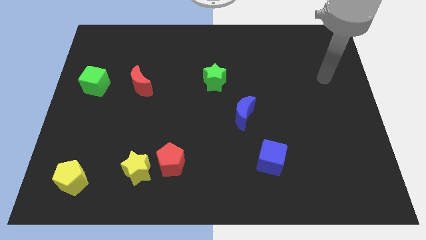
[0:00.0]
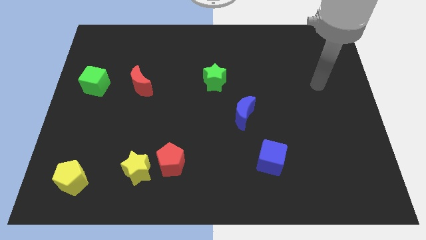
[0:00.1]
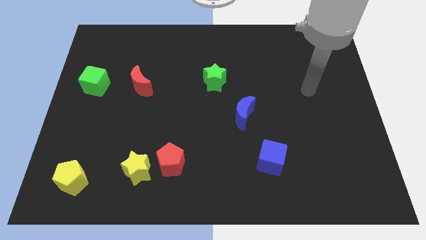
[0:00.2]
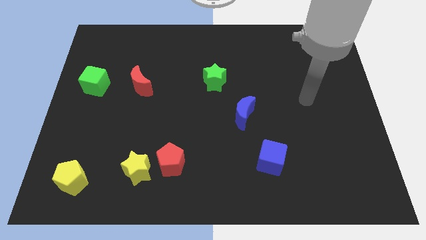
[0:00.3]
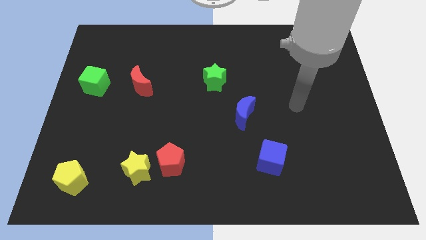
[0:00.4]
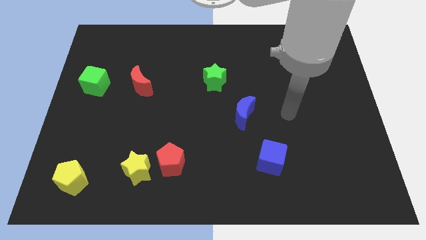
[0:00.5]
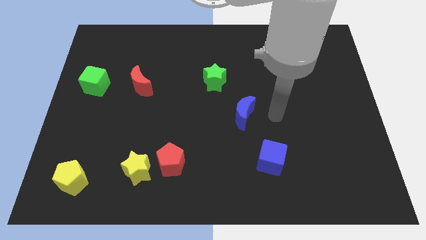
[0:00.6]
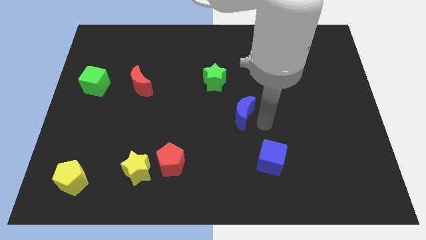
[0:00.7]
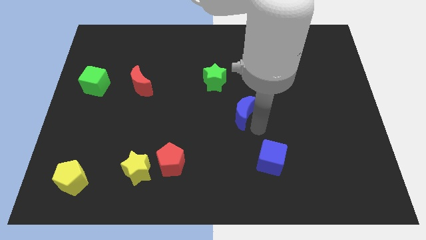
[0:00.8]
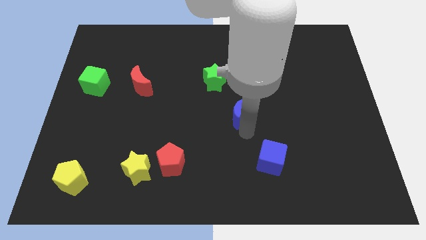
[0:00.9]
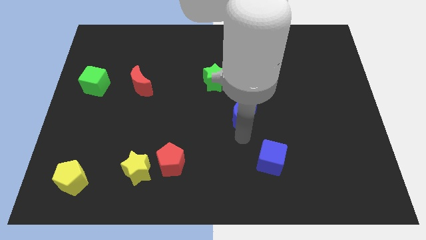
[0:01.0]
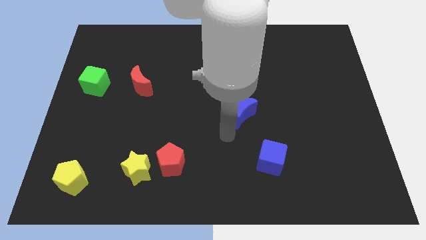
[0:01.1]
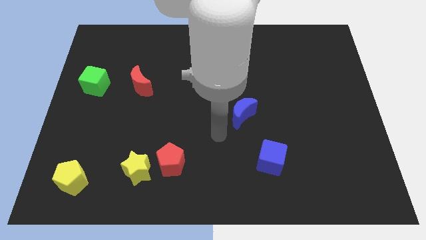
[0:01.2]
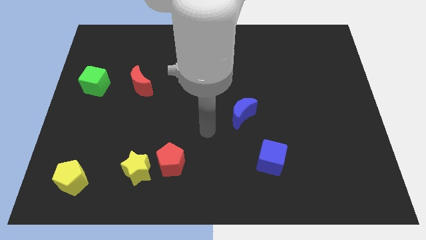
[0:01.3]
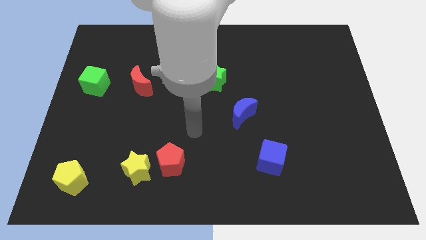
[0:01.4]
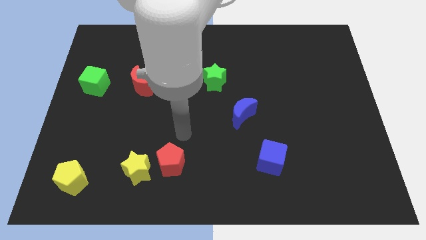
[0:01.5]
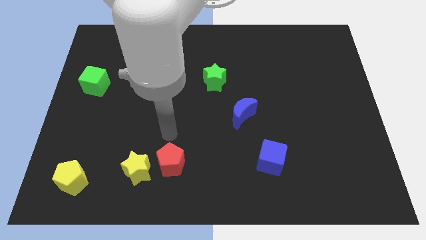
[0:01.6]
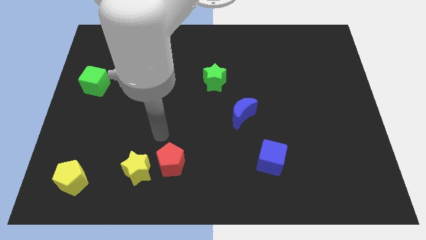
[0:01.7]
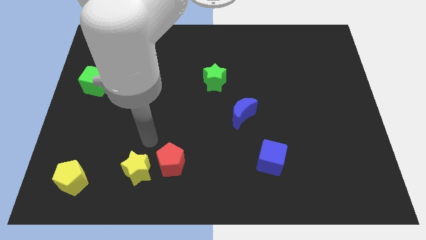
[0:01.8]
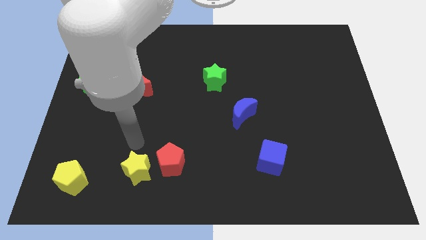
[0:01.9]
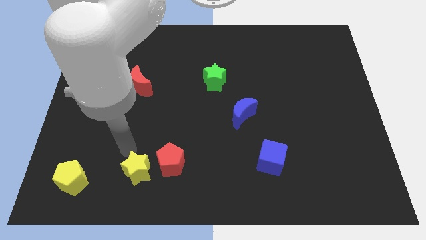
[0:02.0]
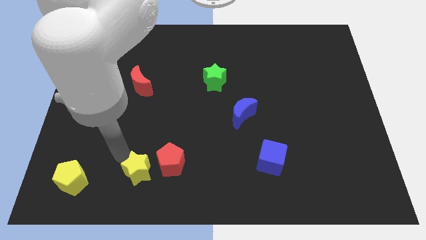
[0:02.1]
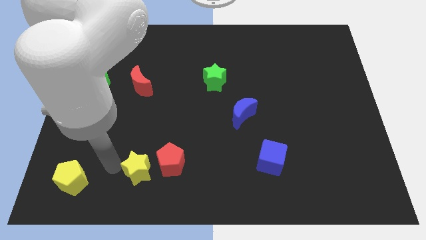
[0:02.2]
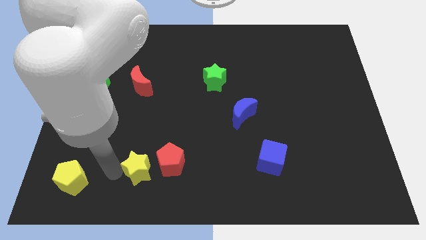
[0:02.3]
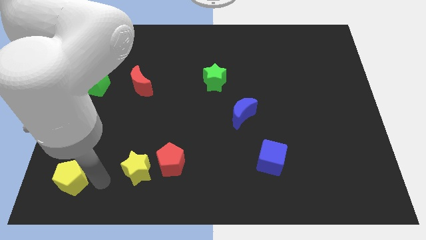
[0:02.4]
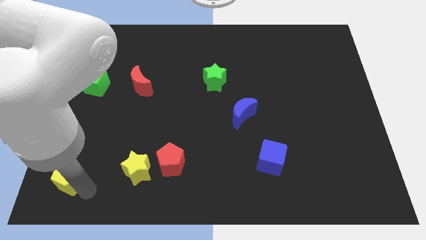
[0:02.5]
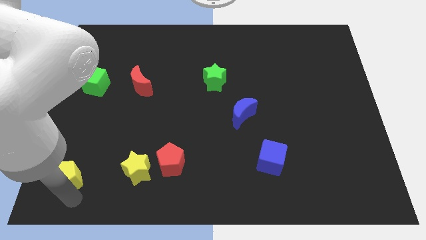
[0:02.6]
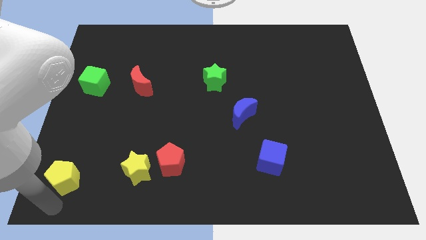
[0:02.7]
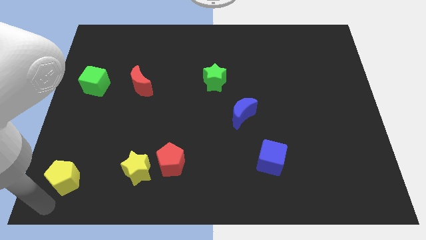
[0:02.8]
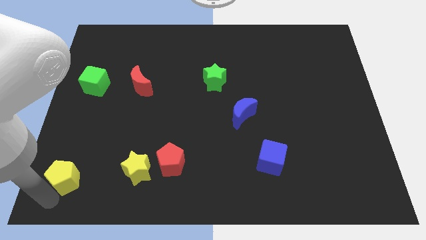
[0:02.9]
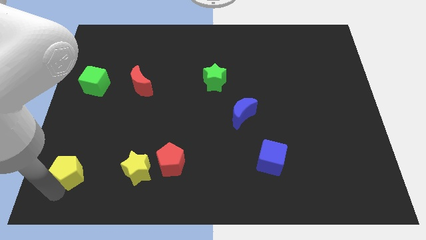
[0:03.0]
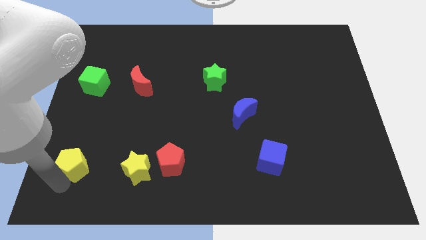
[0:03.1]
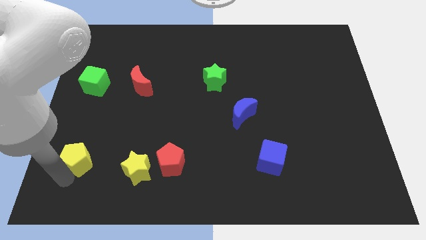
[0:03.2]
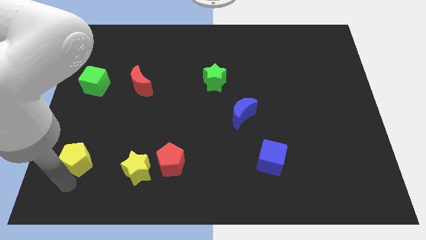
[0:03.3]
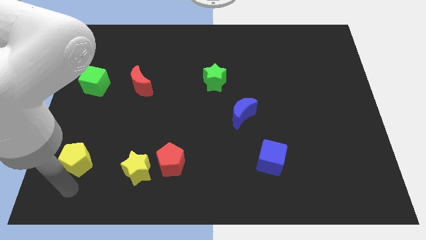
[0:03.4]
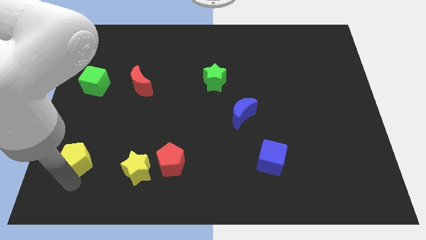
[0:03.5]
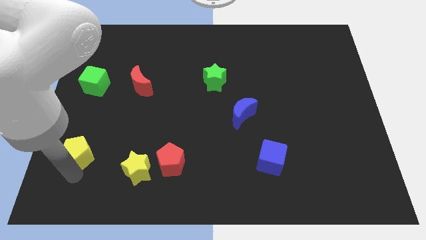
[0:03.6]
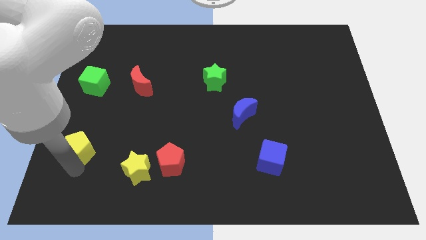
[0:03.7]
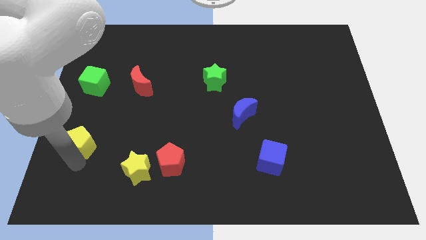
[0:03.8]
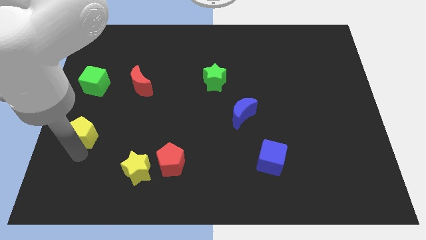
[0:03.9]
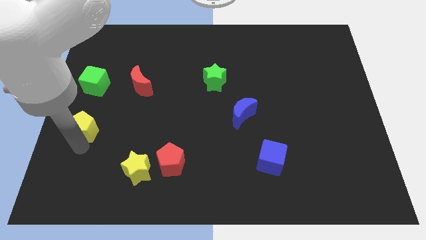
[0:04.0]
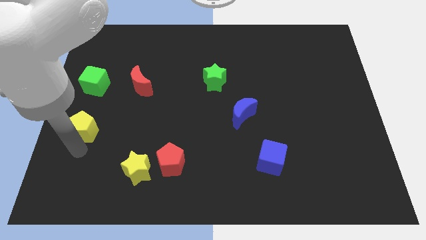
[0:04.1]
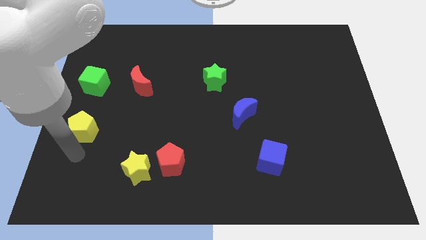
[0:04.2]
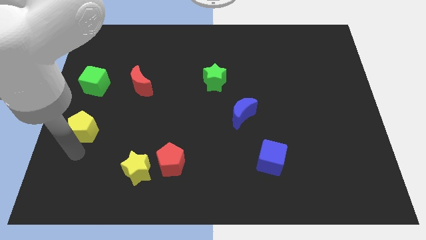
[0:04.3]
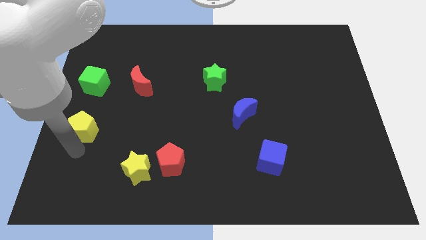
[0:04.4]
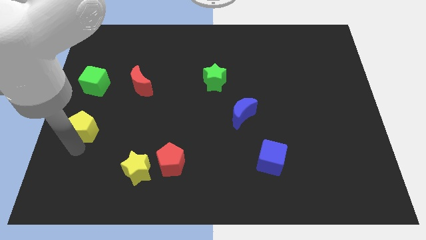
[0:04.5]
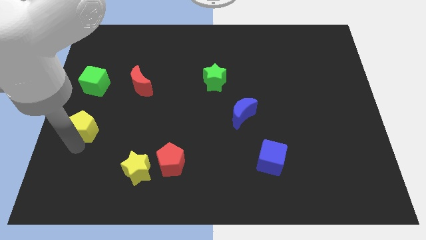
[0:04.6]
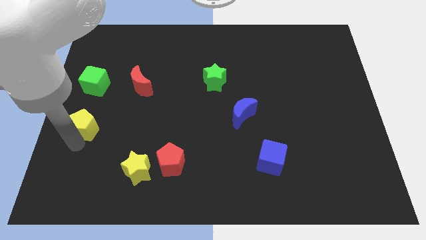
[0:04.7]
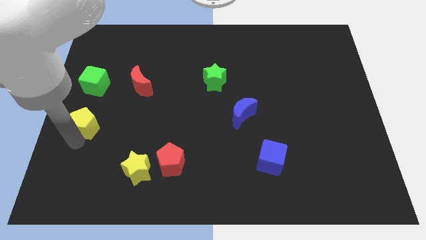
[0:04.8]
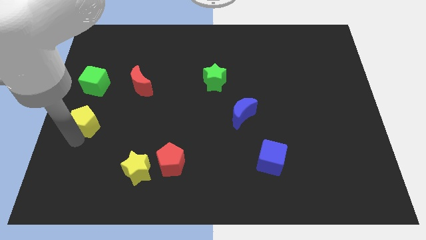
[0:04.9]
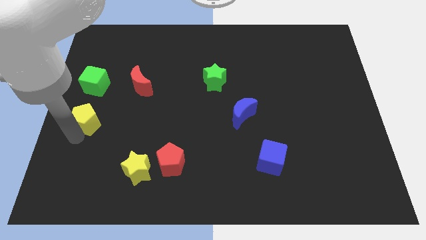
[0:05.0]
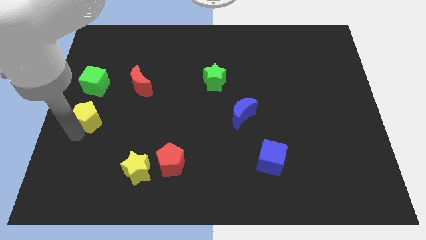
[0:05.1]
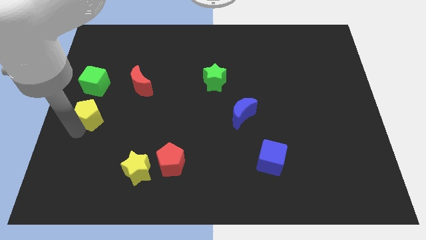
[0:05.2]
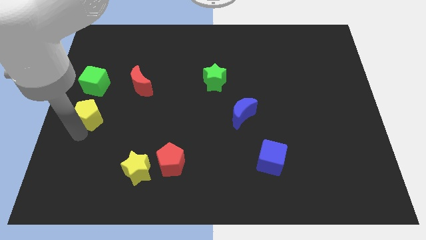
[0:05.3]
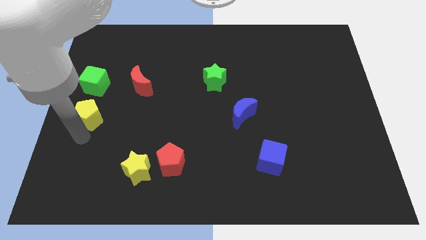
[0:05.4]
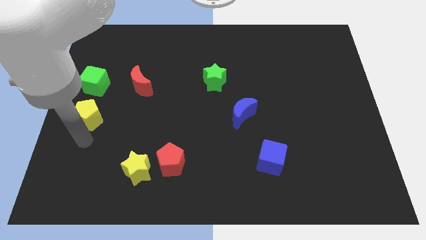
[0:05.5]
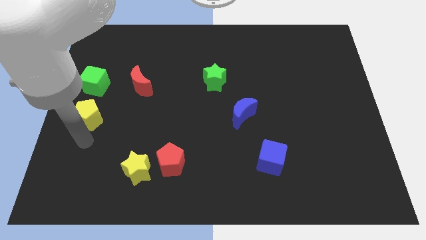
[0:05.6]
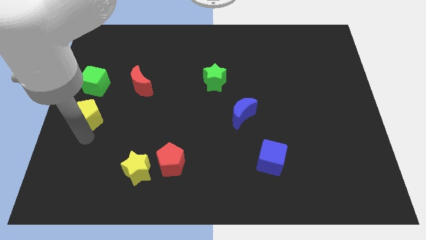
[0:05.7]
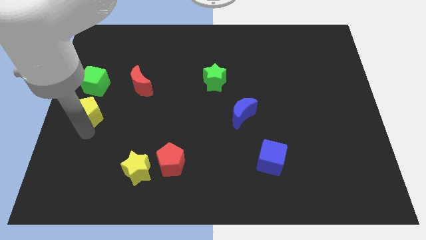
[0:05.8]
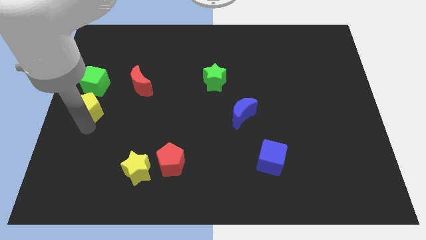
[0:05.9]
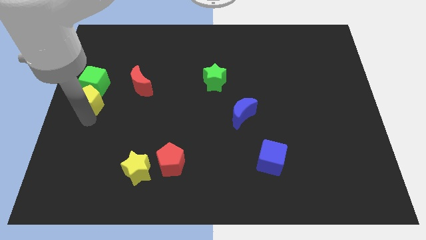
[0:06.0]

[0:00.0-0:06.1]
move the yellow pentagon to the green cube

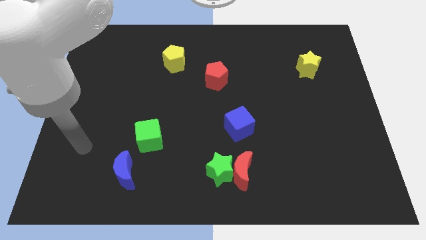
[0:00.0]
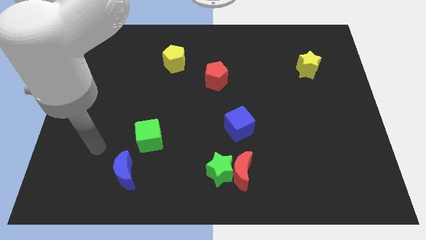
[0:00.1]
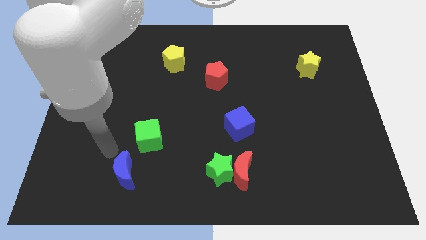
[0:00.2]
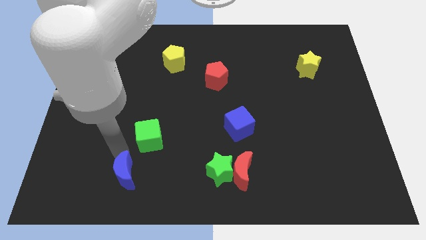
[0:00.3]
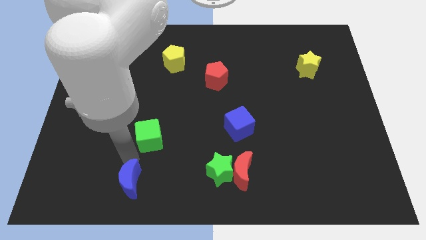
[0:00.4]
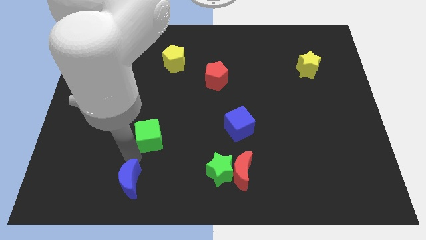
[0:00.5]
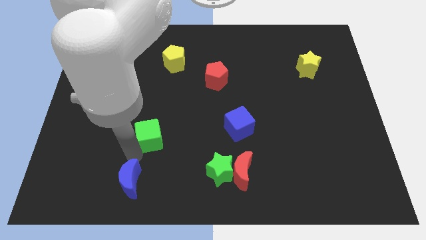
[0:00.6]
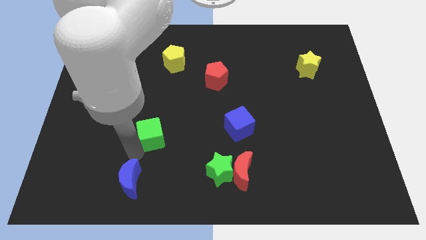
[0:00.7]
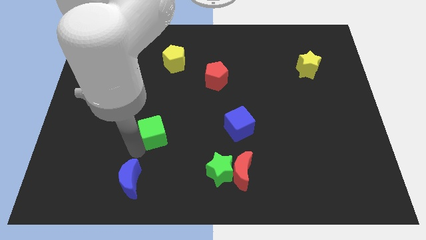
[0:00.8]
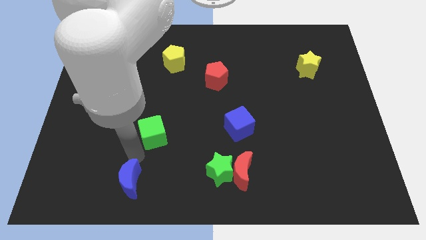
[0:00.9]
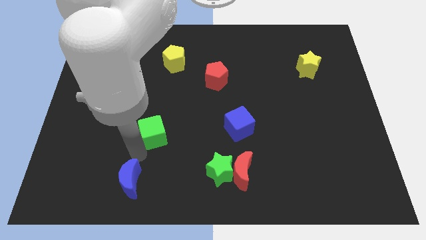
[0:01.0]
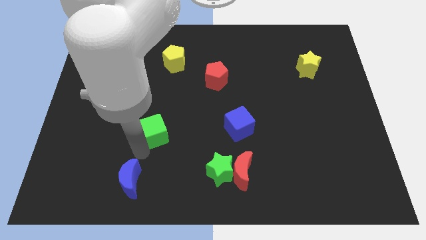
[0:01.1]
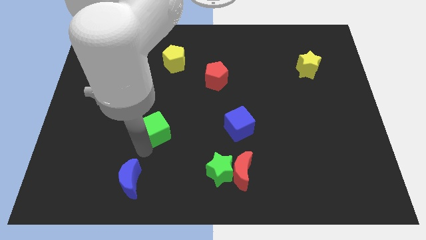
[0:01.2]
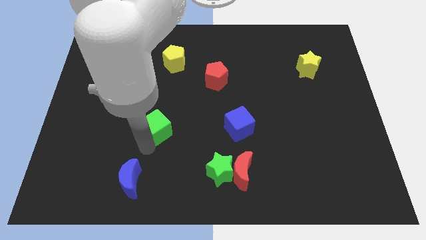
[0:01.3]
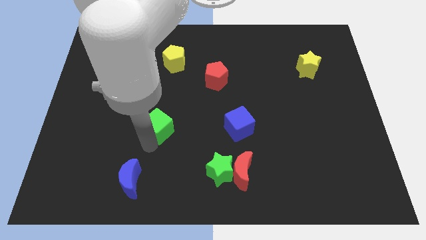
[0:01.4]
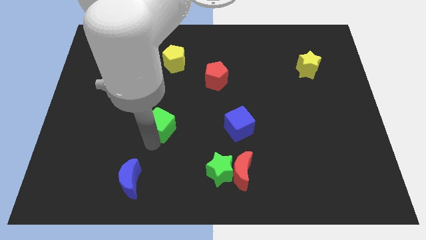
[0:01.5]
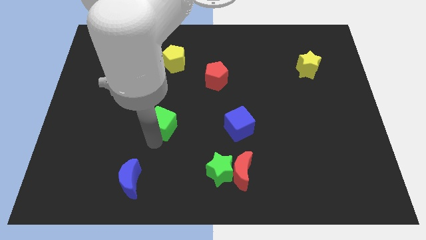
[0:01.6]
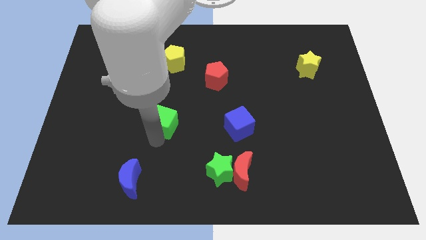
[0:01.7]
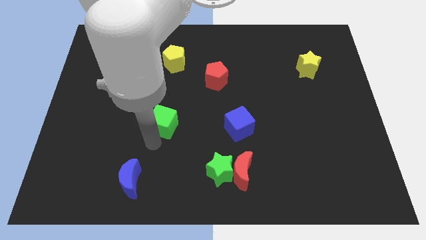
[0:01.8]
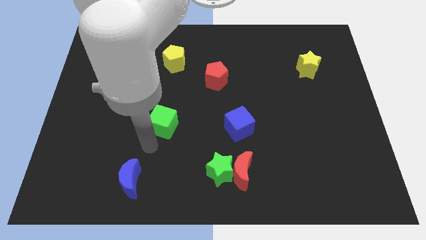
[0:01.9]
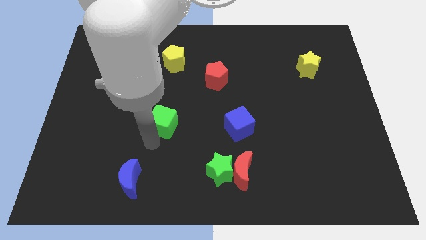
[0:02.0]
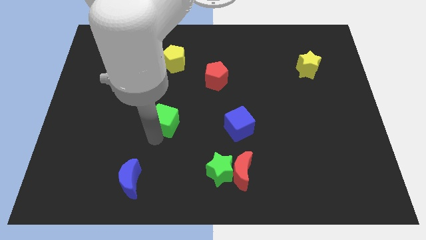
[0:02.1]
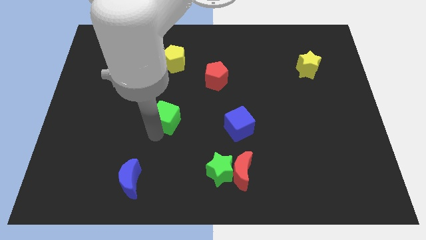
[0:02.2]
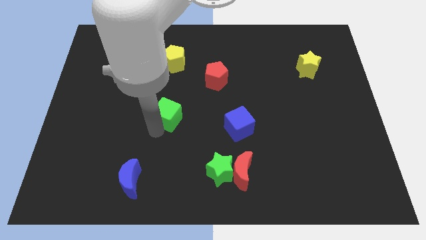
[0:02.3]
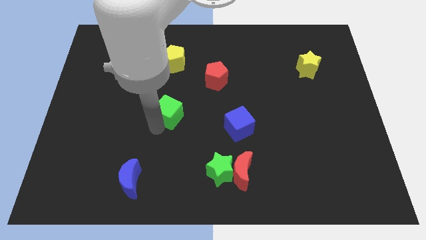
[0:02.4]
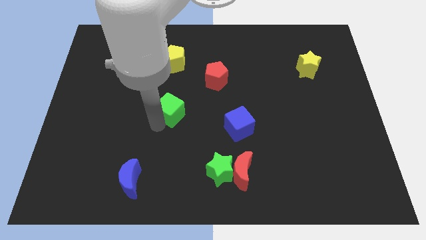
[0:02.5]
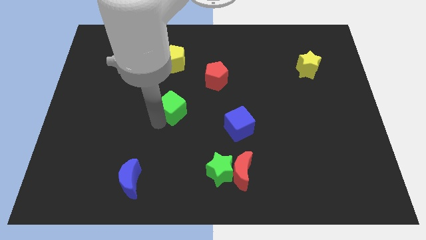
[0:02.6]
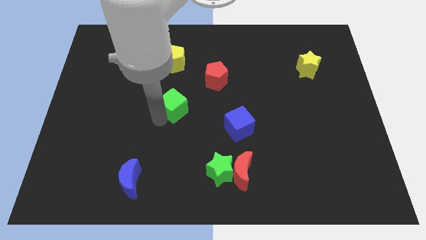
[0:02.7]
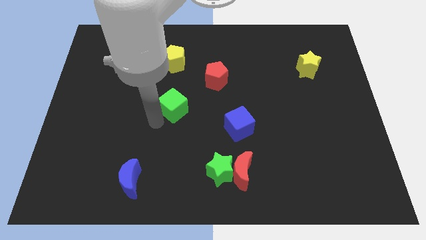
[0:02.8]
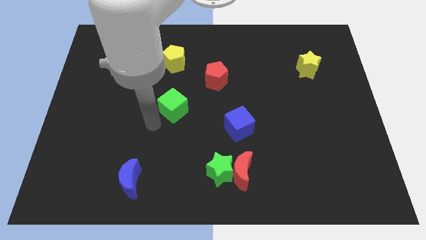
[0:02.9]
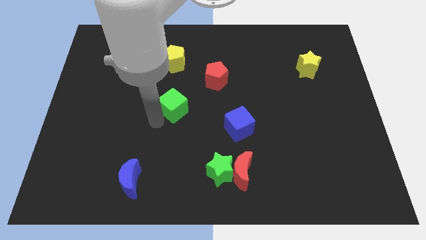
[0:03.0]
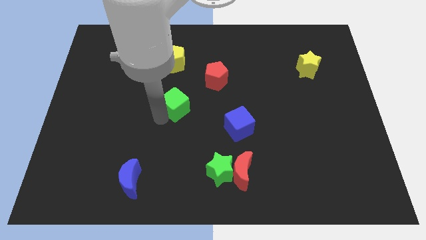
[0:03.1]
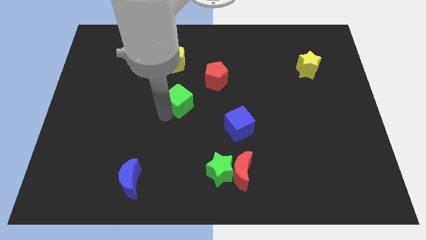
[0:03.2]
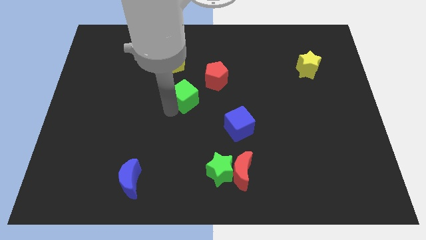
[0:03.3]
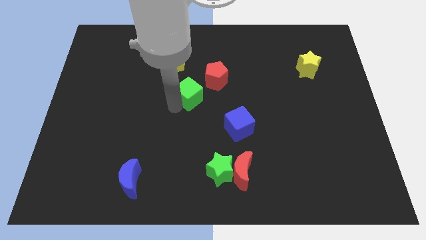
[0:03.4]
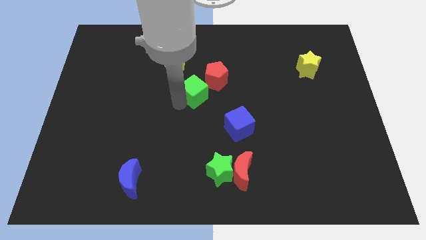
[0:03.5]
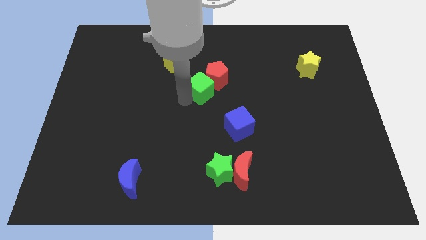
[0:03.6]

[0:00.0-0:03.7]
move the green cube to the red pentagon
